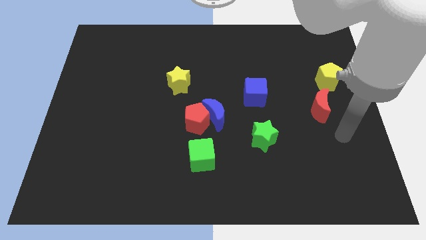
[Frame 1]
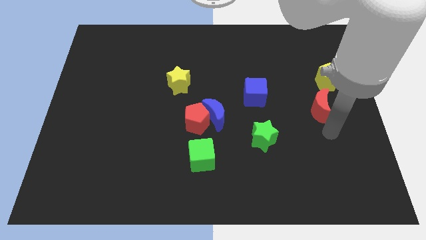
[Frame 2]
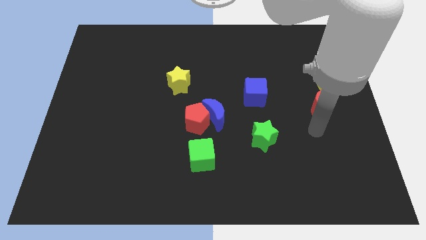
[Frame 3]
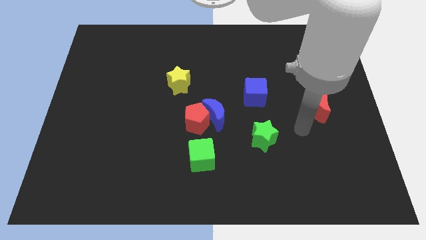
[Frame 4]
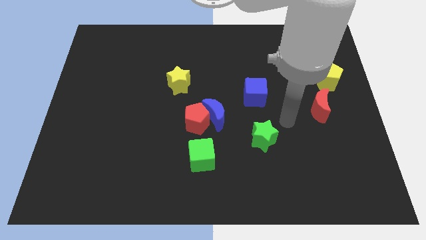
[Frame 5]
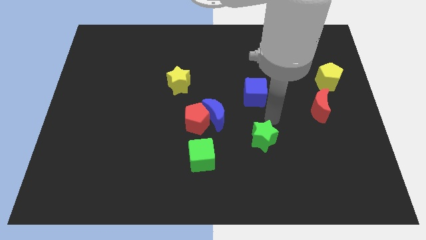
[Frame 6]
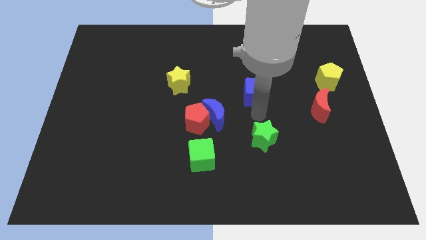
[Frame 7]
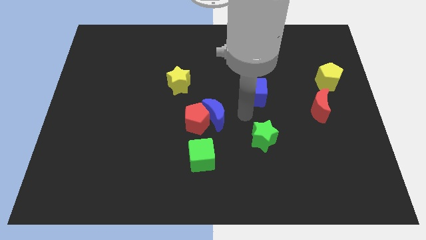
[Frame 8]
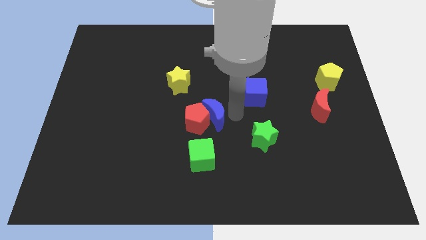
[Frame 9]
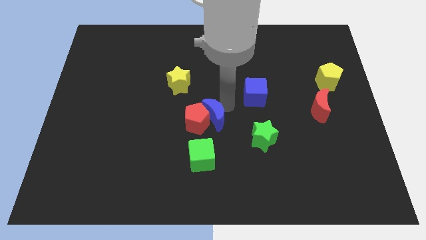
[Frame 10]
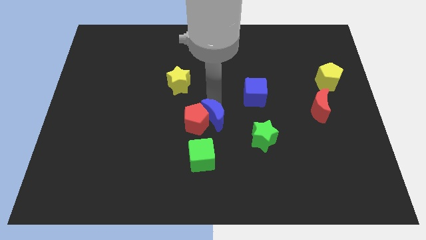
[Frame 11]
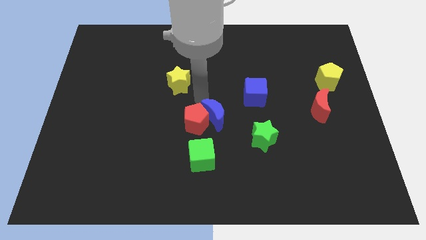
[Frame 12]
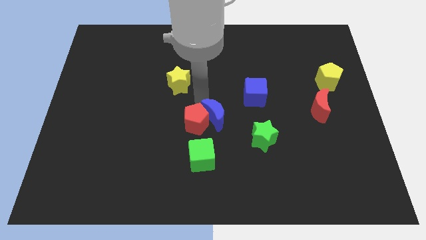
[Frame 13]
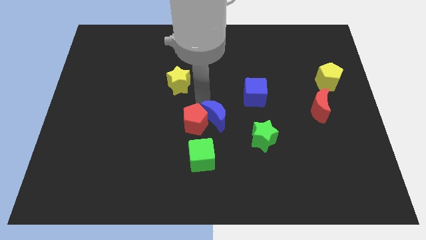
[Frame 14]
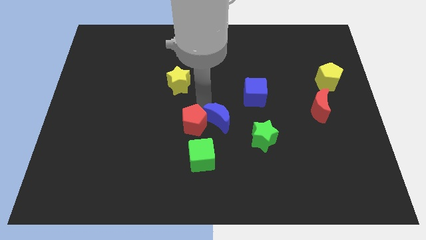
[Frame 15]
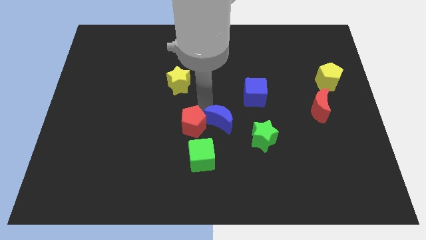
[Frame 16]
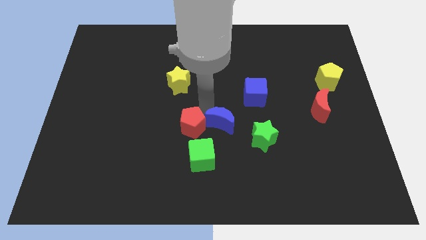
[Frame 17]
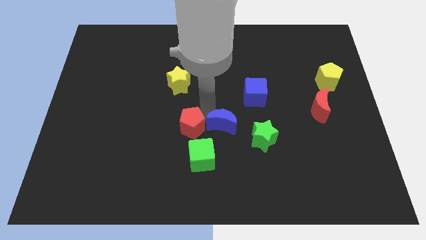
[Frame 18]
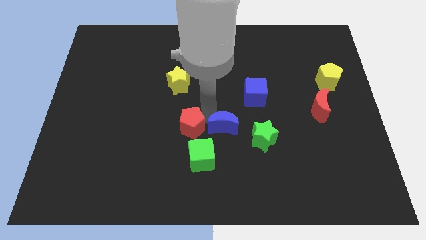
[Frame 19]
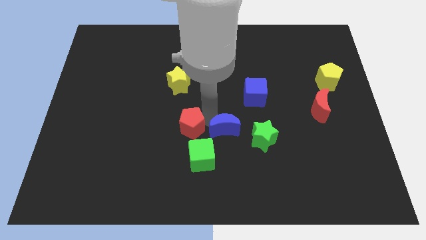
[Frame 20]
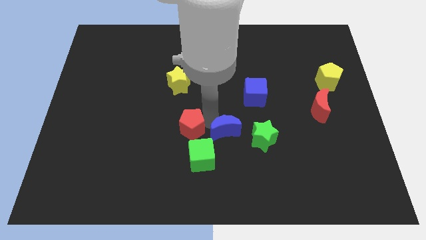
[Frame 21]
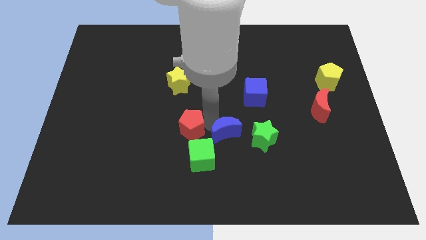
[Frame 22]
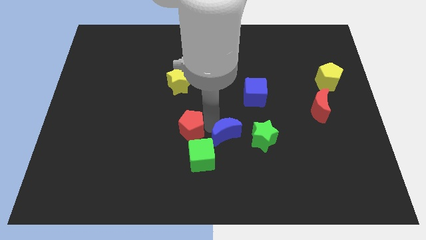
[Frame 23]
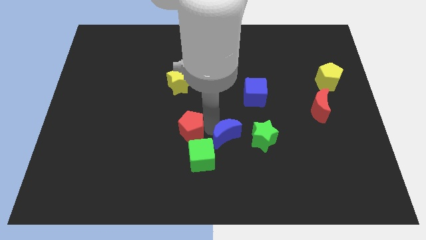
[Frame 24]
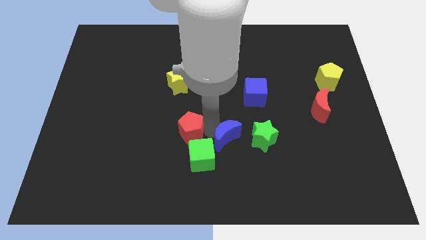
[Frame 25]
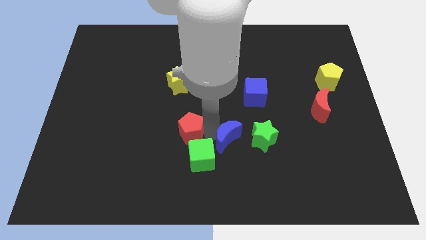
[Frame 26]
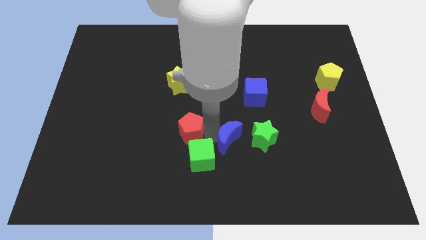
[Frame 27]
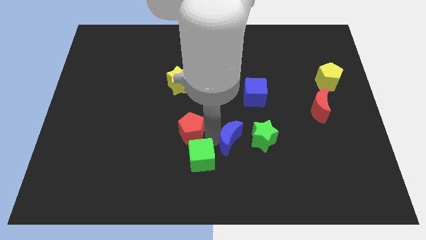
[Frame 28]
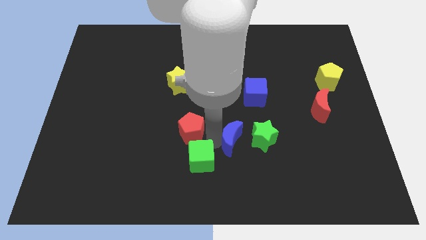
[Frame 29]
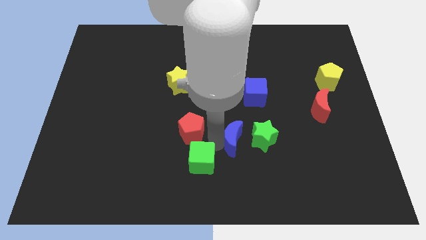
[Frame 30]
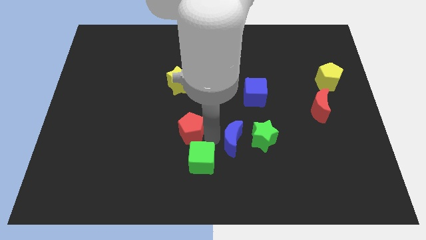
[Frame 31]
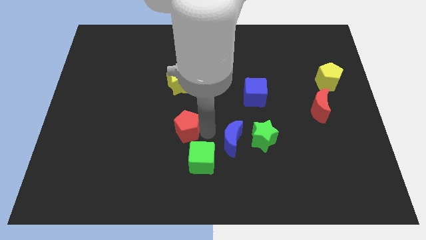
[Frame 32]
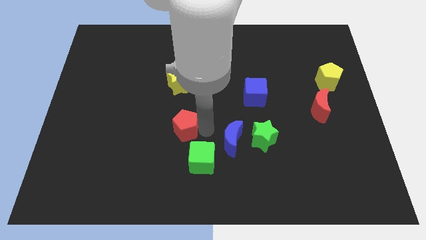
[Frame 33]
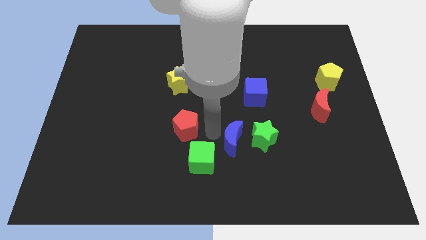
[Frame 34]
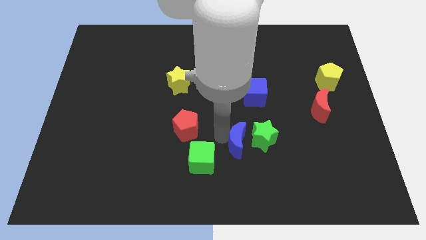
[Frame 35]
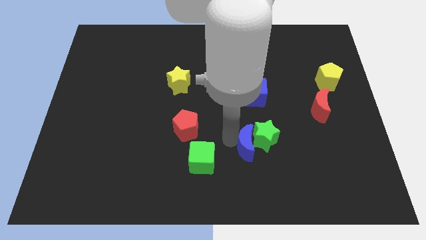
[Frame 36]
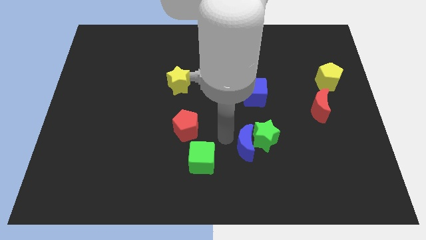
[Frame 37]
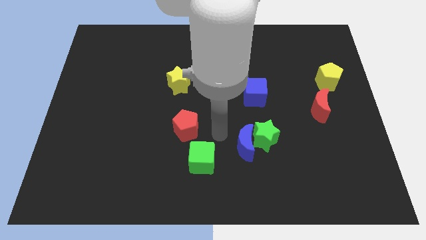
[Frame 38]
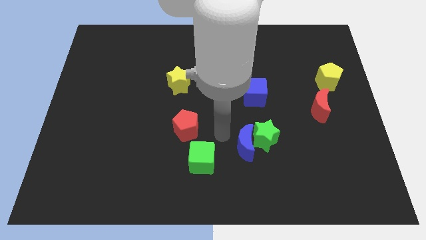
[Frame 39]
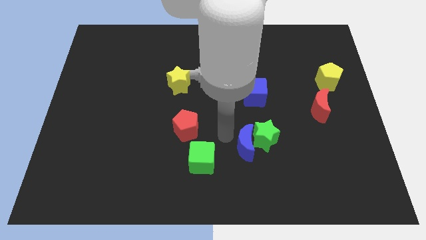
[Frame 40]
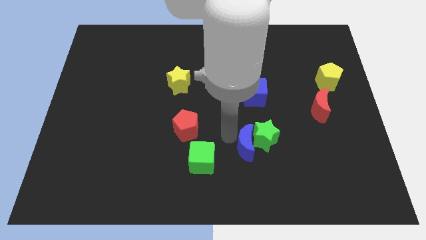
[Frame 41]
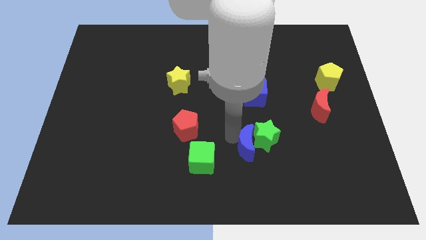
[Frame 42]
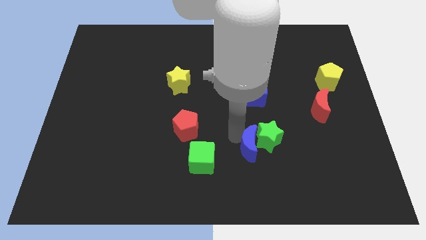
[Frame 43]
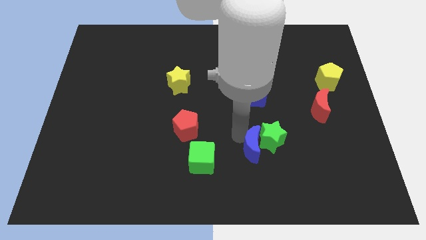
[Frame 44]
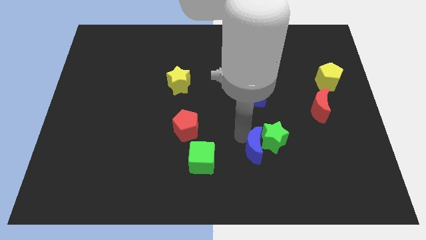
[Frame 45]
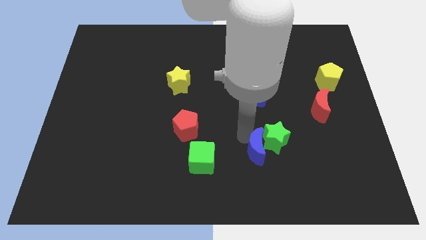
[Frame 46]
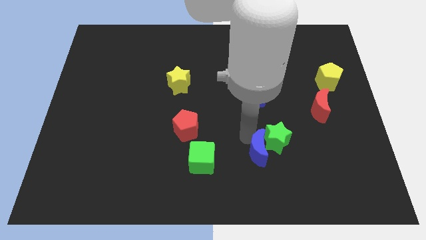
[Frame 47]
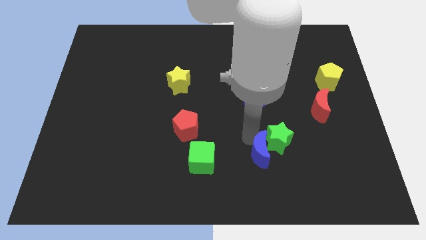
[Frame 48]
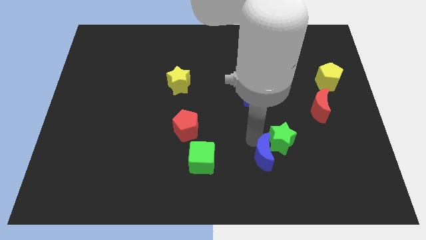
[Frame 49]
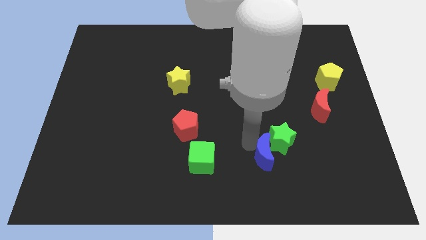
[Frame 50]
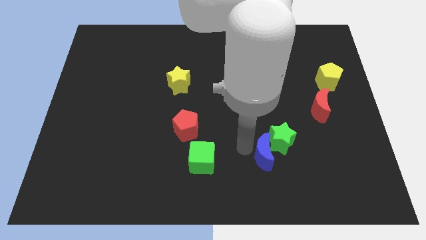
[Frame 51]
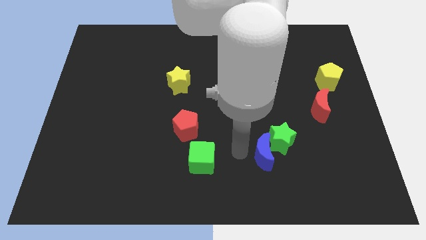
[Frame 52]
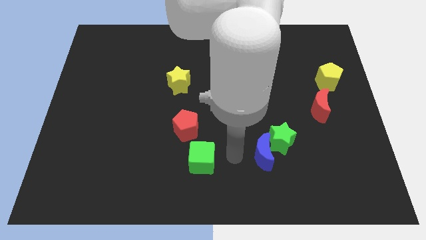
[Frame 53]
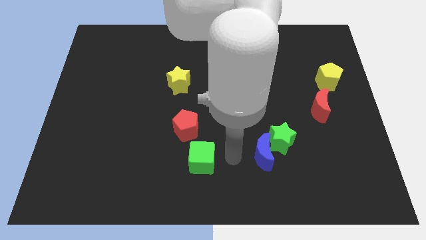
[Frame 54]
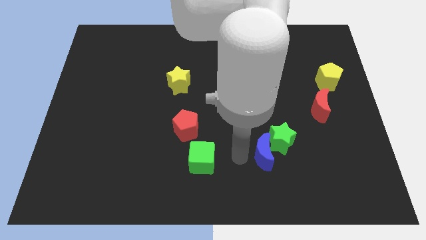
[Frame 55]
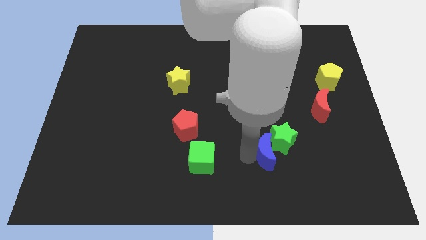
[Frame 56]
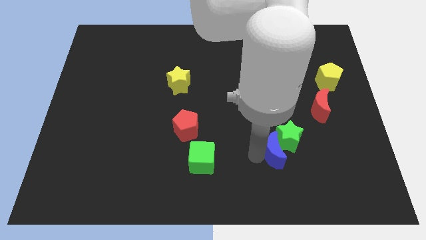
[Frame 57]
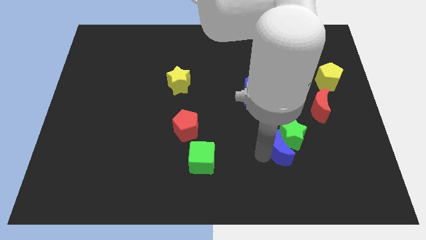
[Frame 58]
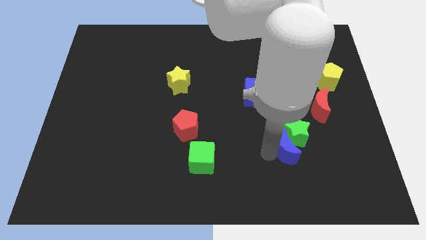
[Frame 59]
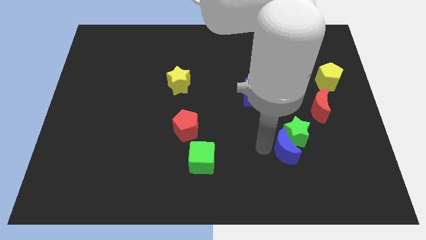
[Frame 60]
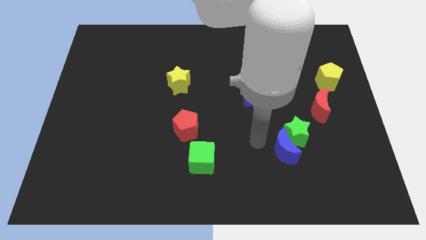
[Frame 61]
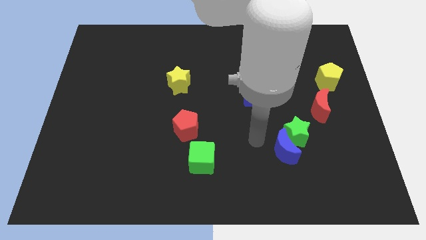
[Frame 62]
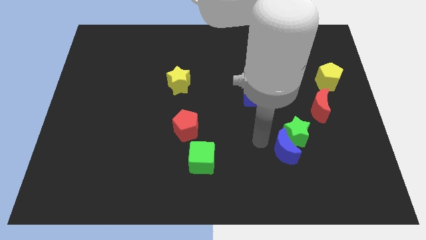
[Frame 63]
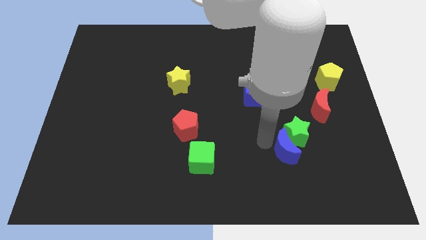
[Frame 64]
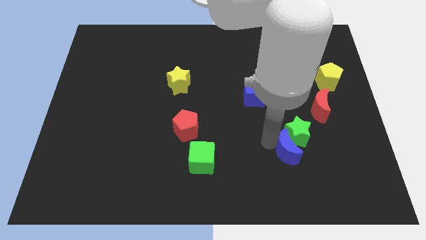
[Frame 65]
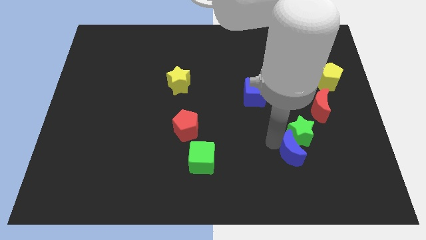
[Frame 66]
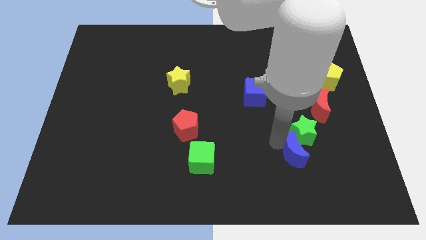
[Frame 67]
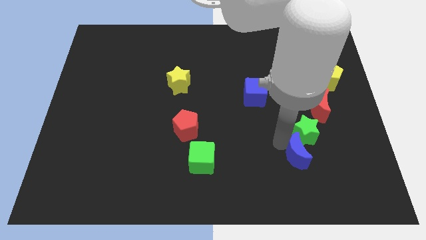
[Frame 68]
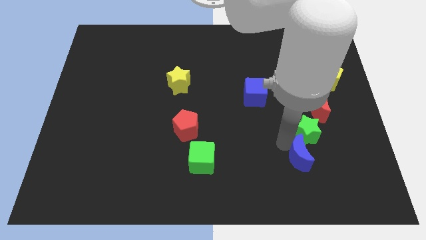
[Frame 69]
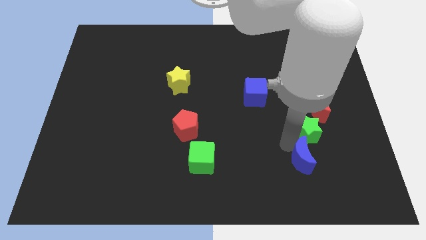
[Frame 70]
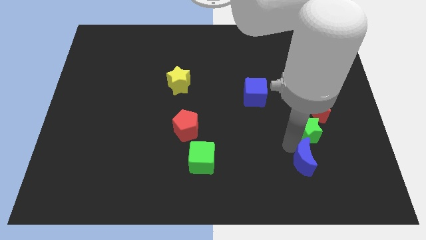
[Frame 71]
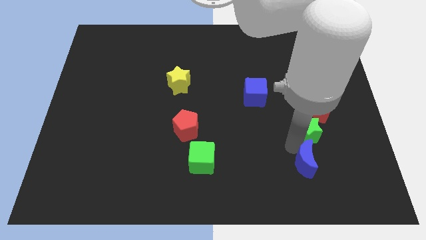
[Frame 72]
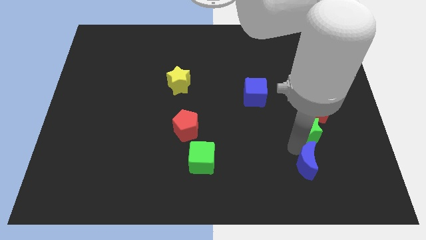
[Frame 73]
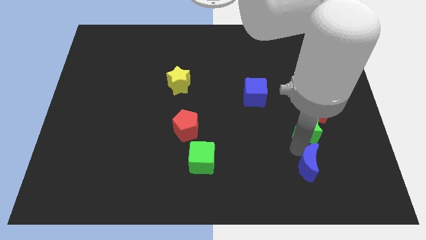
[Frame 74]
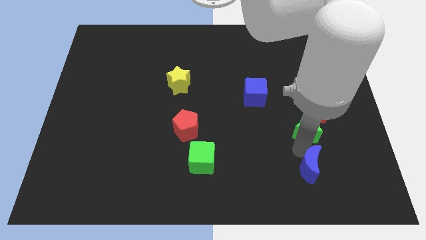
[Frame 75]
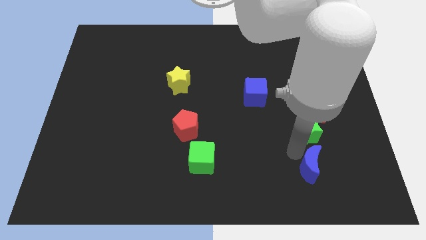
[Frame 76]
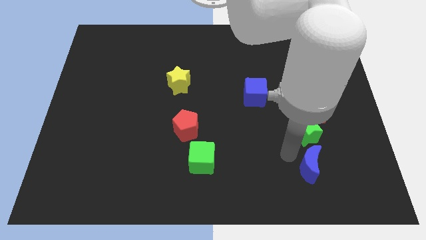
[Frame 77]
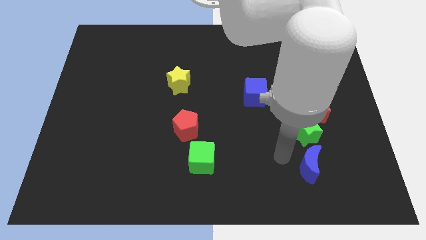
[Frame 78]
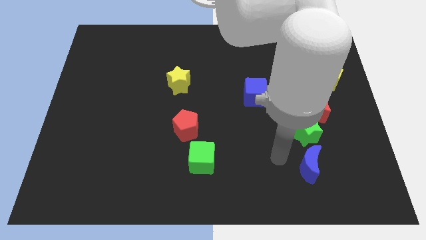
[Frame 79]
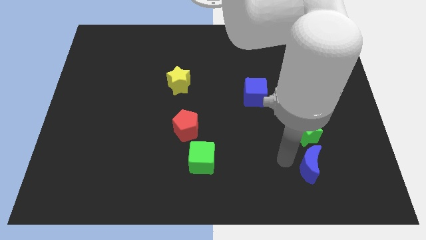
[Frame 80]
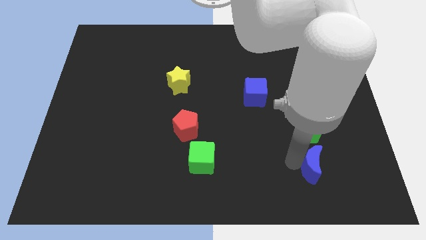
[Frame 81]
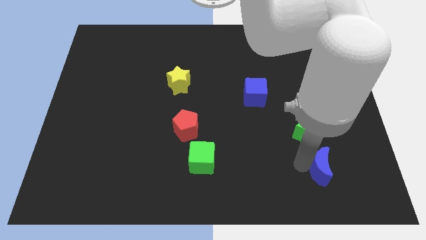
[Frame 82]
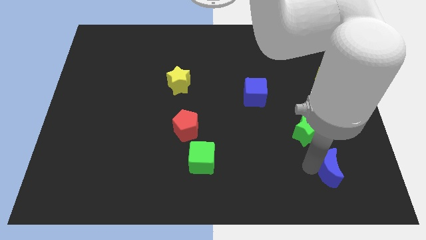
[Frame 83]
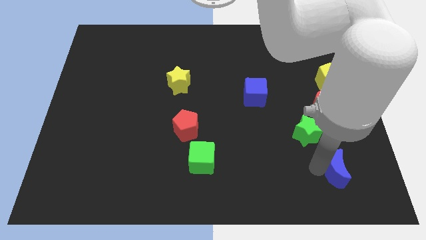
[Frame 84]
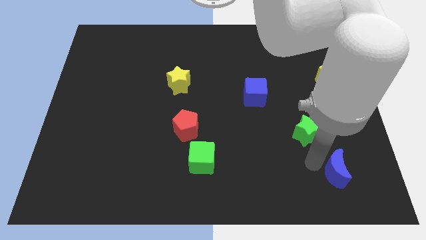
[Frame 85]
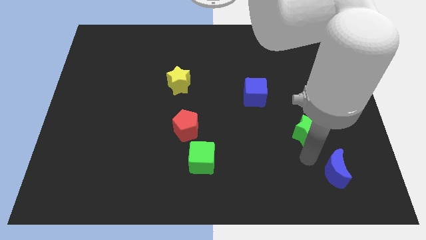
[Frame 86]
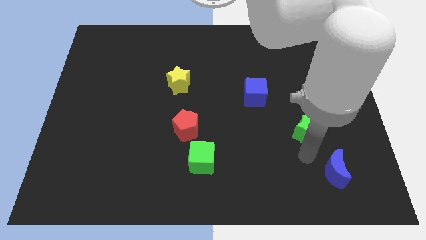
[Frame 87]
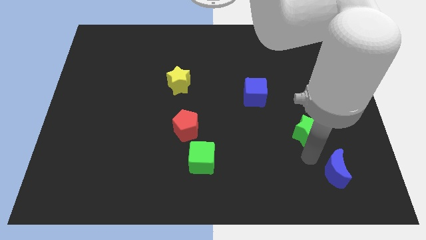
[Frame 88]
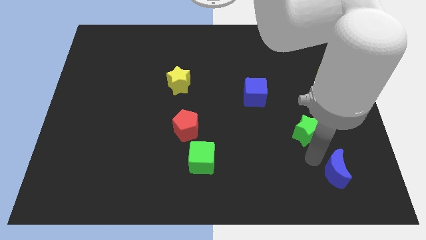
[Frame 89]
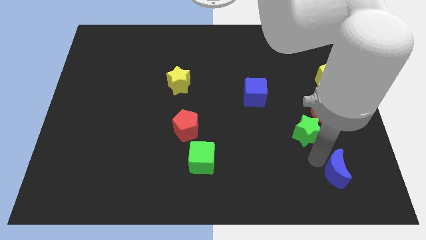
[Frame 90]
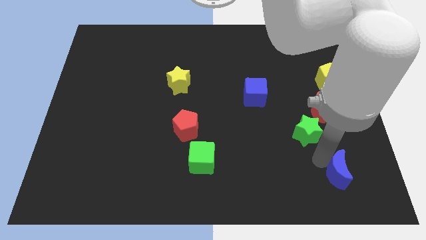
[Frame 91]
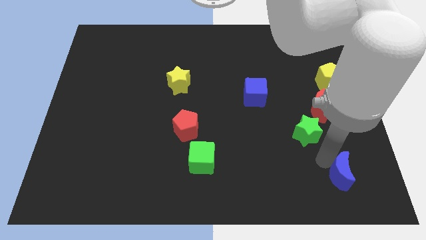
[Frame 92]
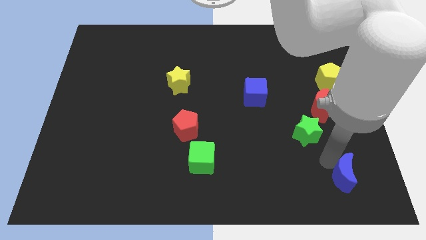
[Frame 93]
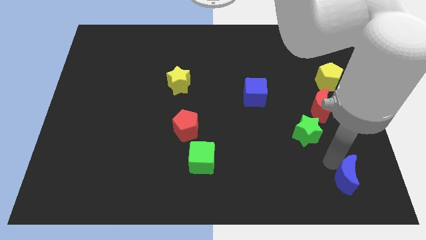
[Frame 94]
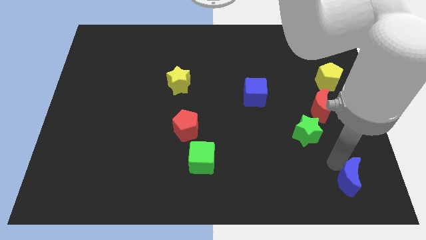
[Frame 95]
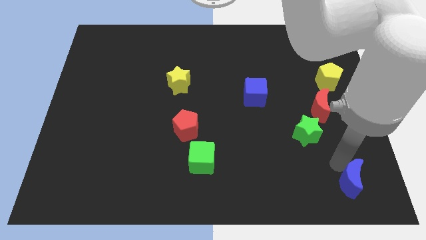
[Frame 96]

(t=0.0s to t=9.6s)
move the blue moon to the bottom right
